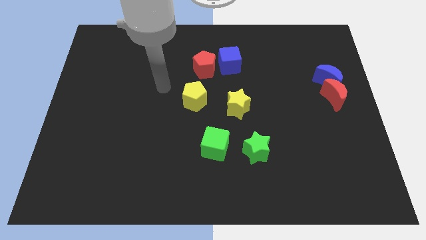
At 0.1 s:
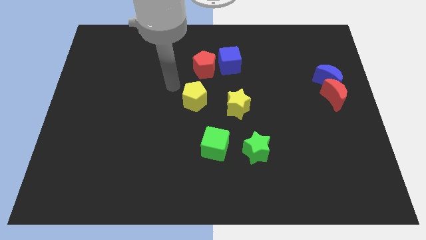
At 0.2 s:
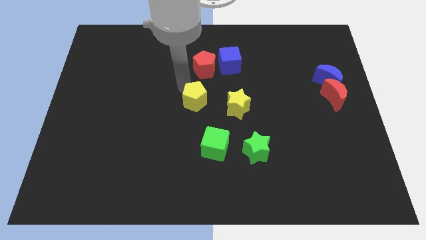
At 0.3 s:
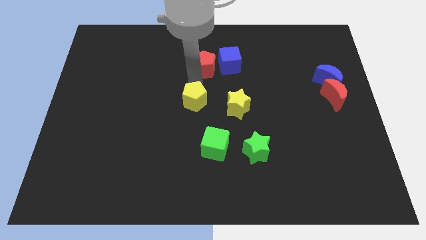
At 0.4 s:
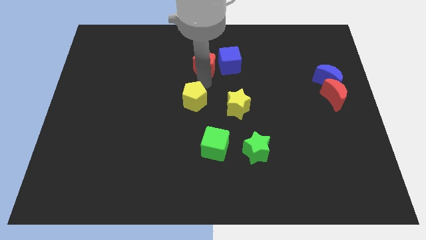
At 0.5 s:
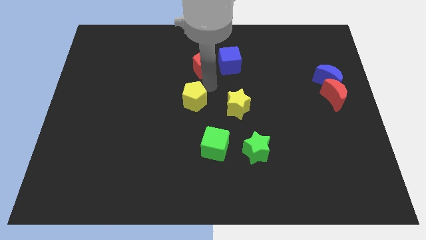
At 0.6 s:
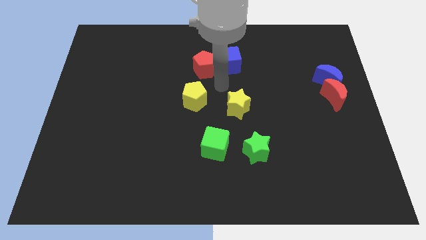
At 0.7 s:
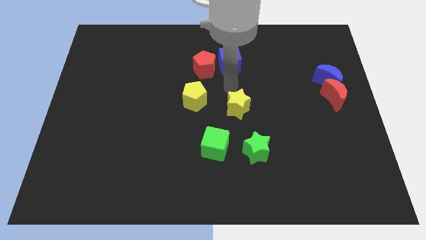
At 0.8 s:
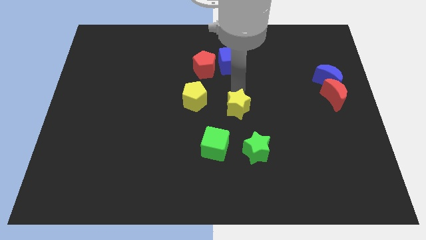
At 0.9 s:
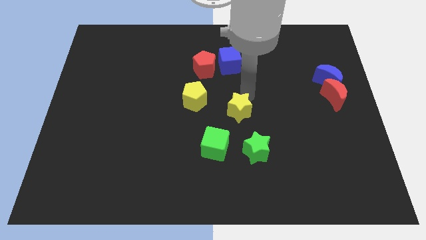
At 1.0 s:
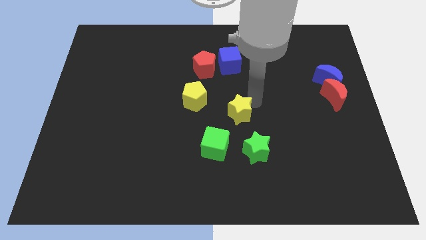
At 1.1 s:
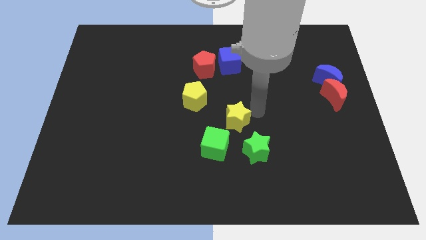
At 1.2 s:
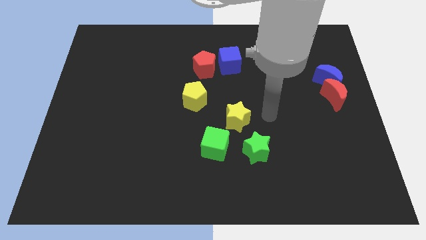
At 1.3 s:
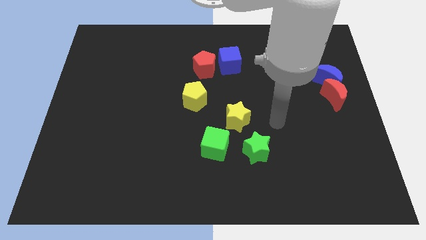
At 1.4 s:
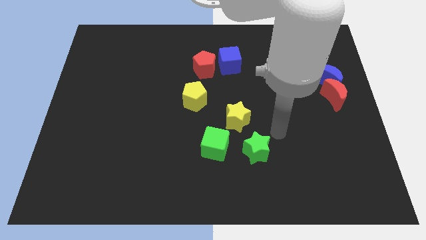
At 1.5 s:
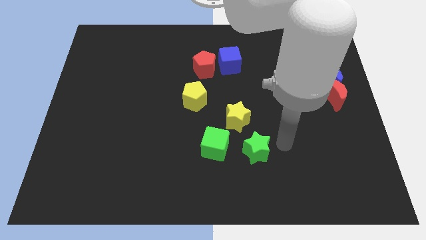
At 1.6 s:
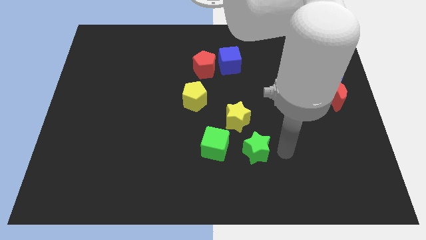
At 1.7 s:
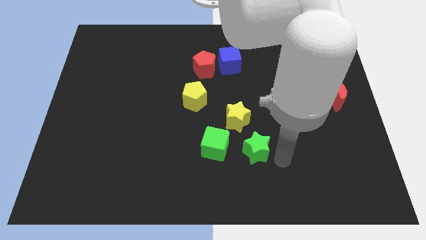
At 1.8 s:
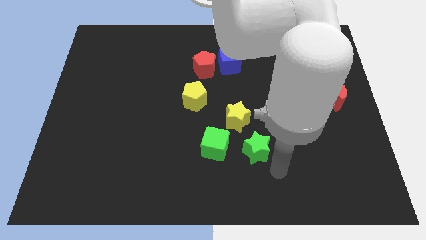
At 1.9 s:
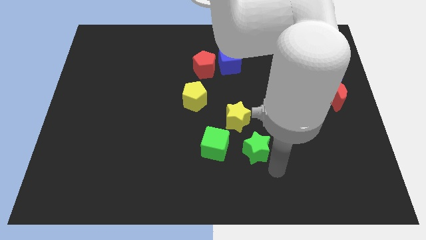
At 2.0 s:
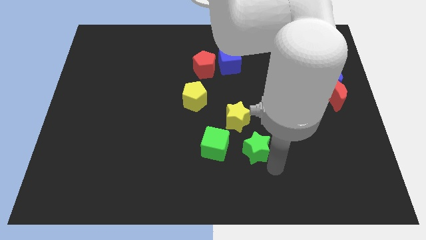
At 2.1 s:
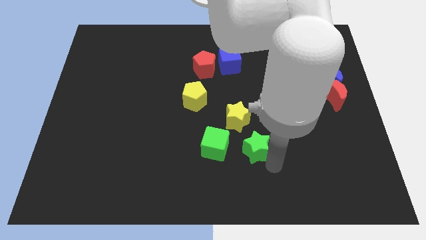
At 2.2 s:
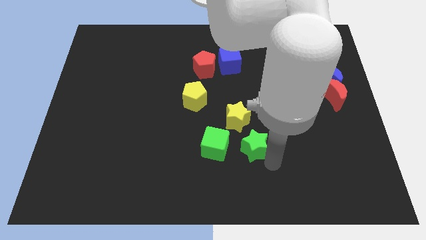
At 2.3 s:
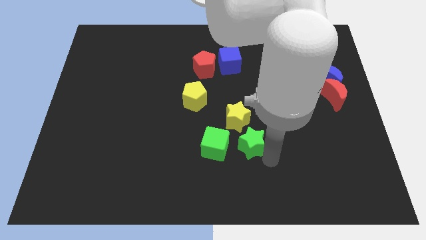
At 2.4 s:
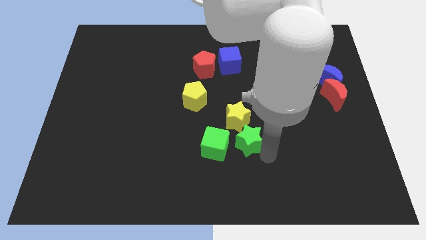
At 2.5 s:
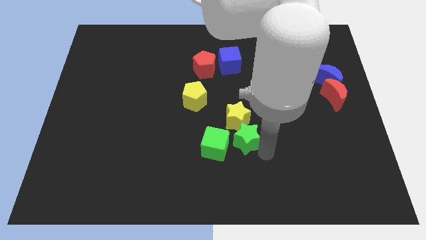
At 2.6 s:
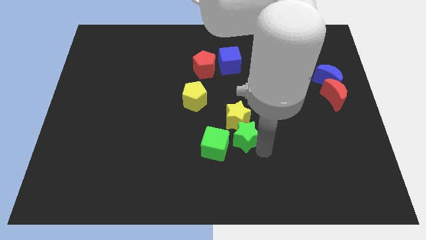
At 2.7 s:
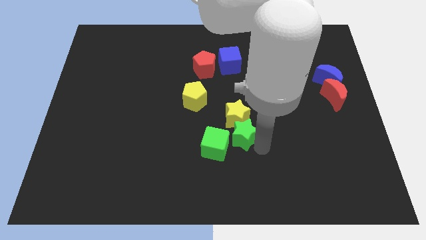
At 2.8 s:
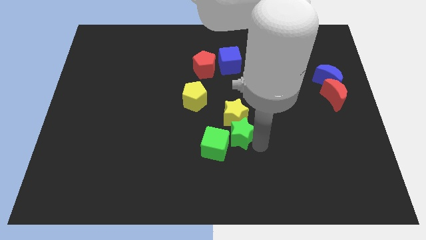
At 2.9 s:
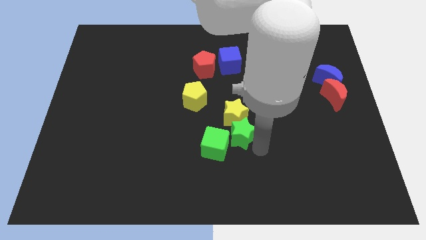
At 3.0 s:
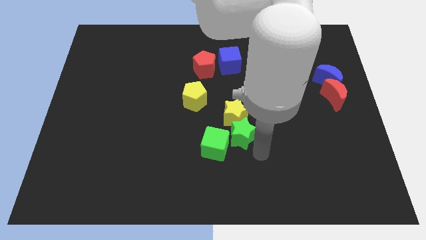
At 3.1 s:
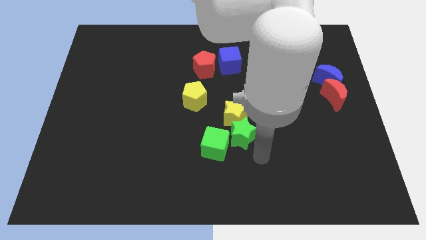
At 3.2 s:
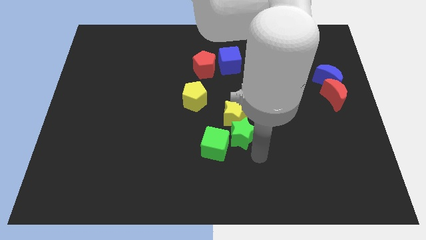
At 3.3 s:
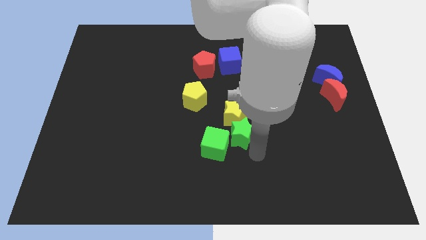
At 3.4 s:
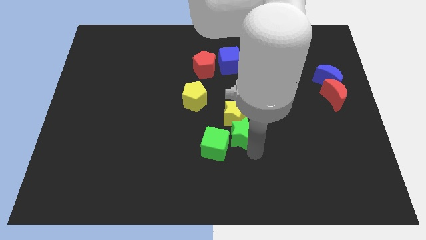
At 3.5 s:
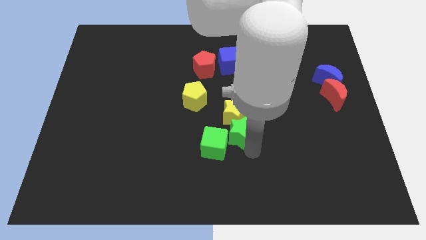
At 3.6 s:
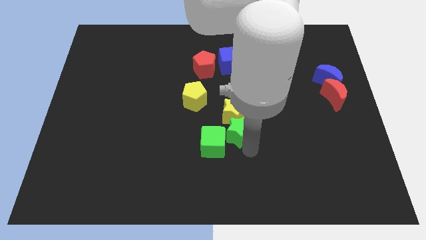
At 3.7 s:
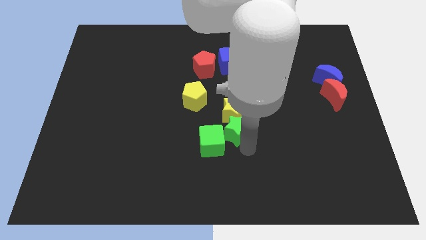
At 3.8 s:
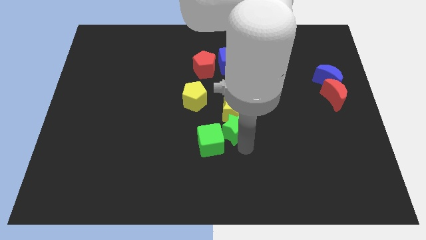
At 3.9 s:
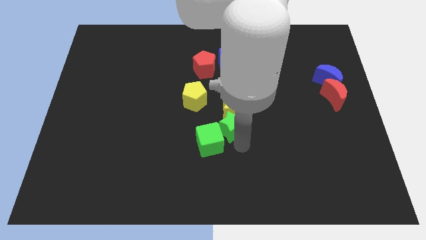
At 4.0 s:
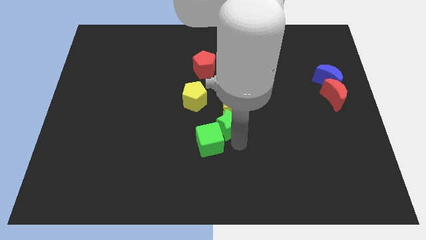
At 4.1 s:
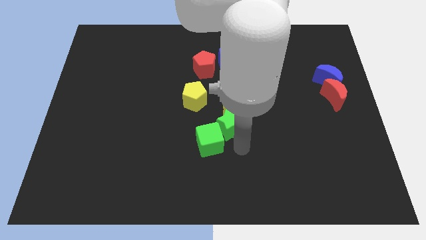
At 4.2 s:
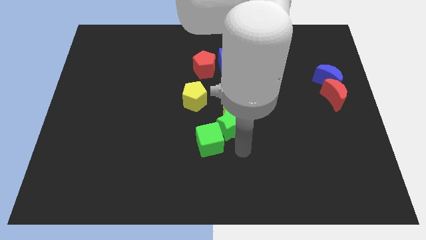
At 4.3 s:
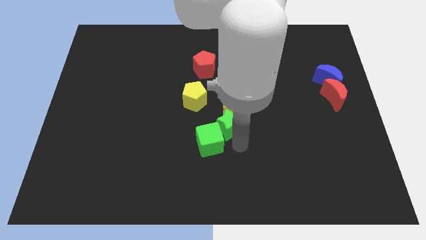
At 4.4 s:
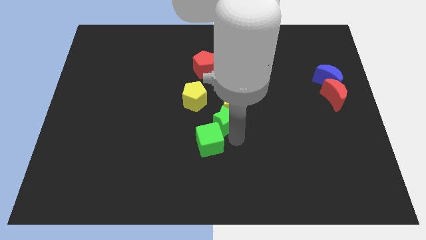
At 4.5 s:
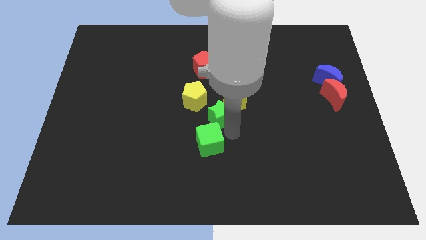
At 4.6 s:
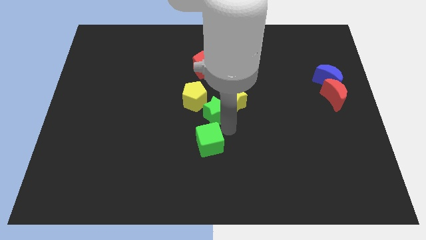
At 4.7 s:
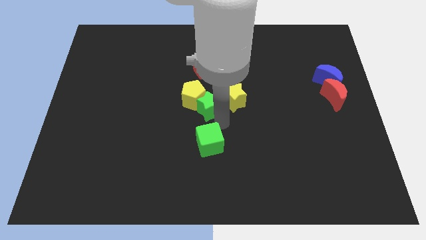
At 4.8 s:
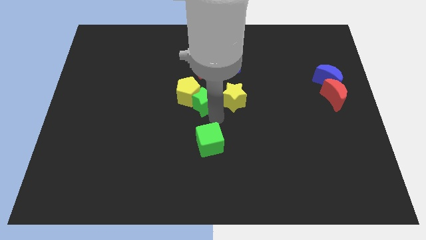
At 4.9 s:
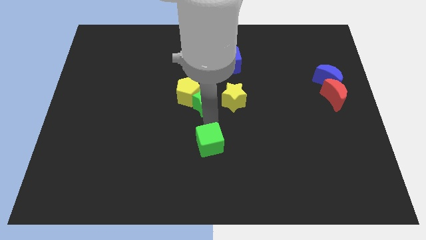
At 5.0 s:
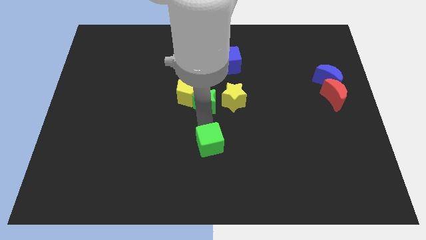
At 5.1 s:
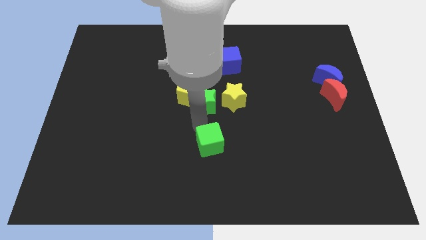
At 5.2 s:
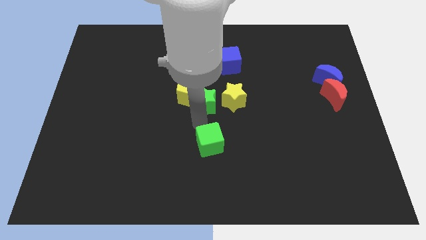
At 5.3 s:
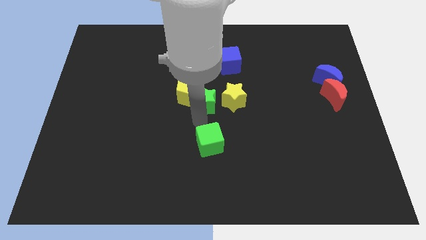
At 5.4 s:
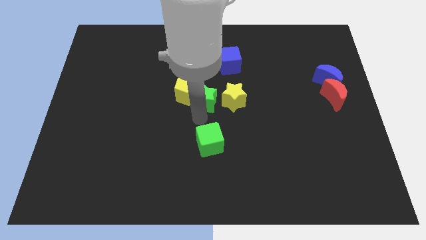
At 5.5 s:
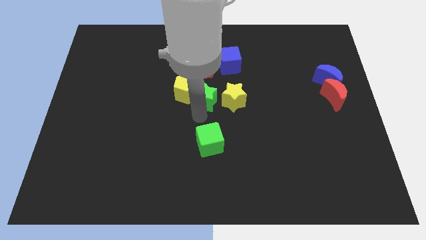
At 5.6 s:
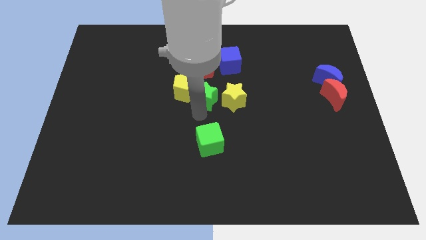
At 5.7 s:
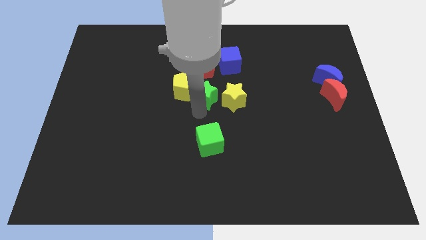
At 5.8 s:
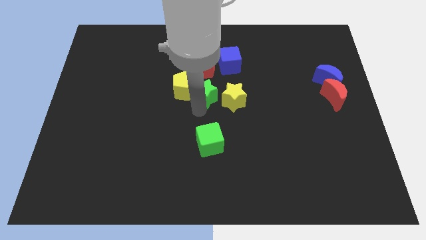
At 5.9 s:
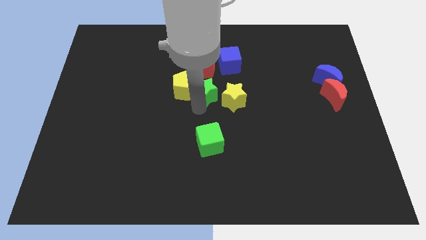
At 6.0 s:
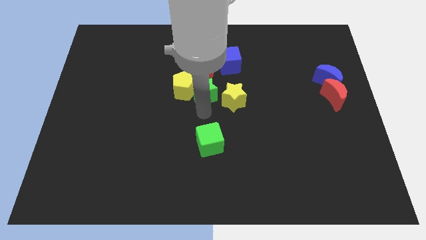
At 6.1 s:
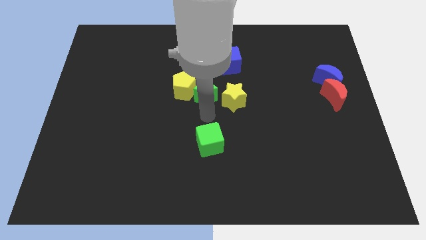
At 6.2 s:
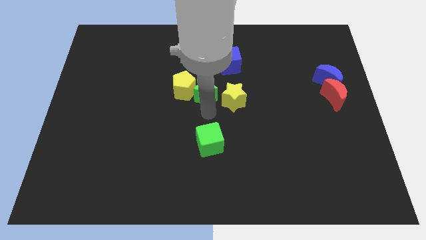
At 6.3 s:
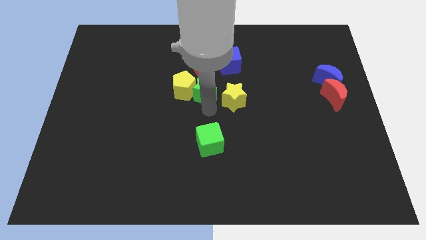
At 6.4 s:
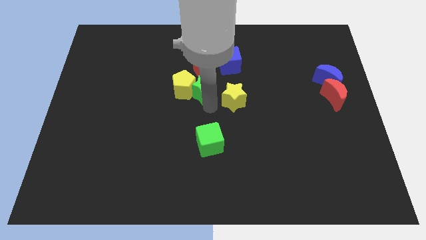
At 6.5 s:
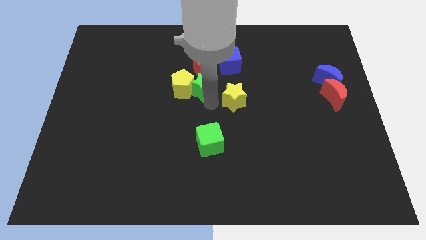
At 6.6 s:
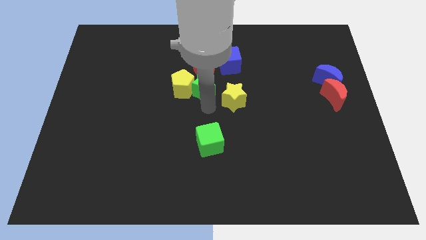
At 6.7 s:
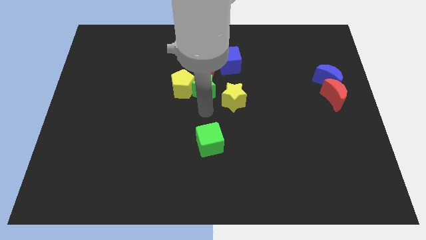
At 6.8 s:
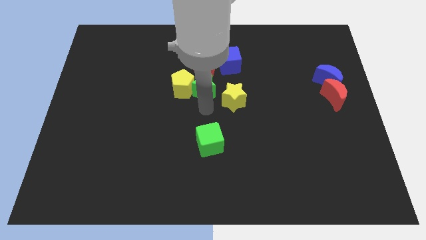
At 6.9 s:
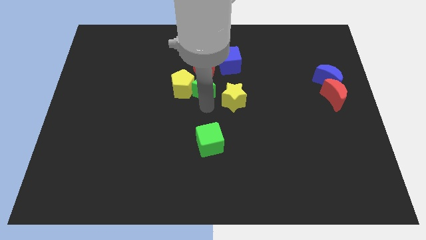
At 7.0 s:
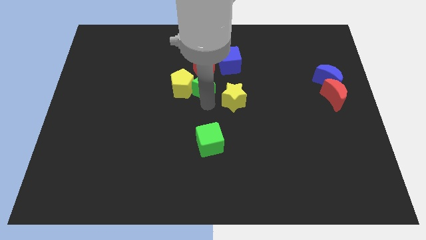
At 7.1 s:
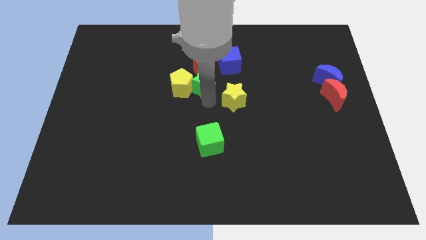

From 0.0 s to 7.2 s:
put the green star next to the red pentagon
